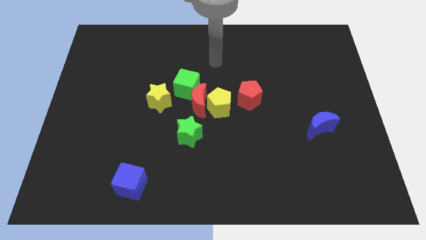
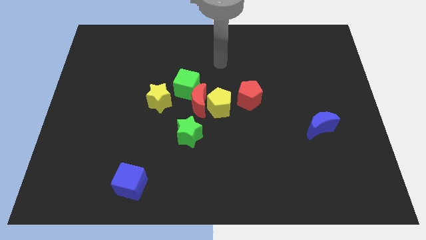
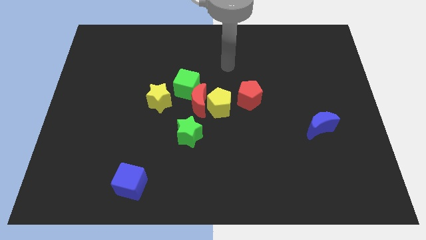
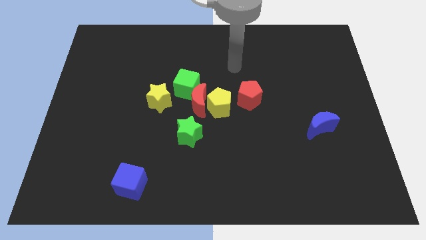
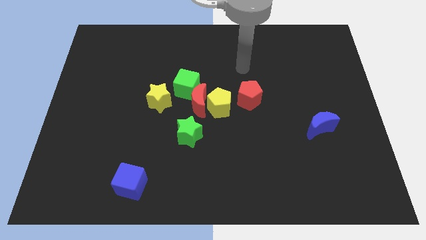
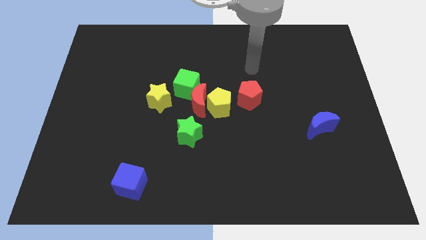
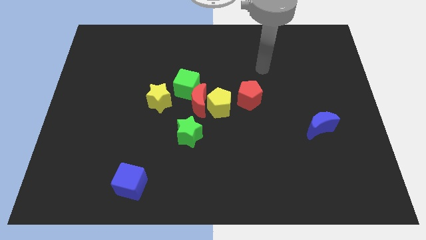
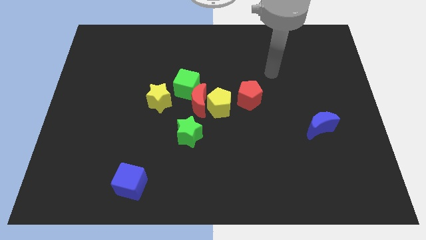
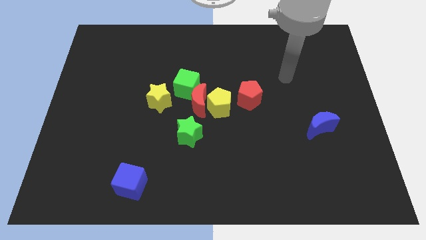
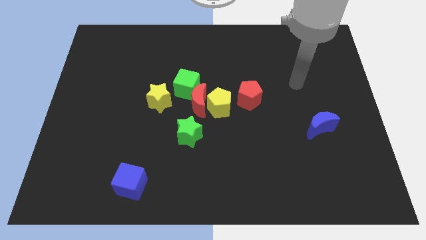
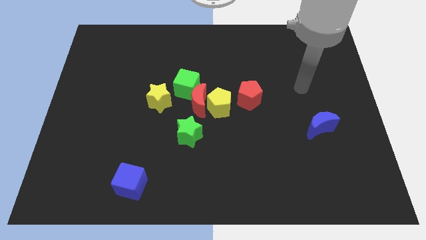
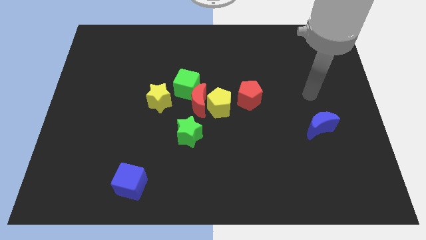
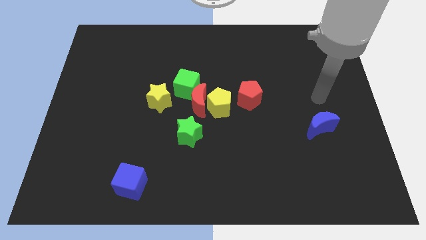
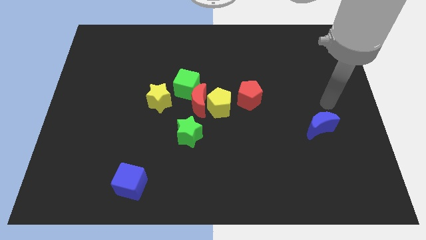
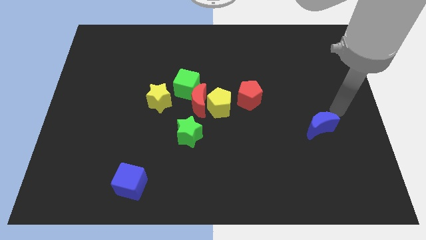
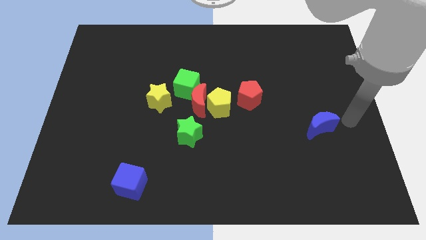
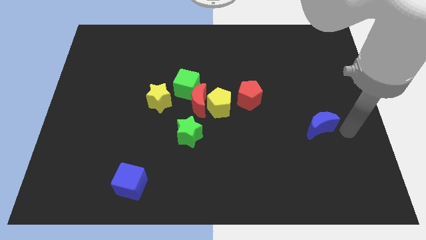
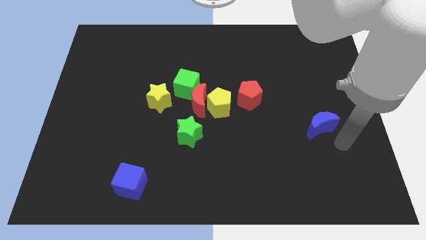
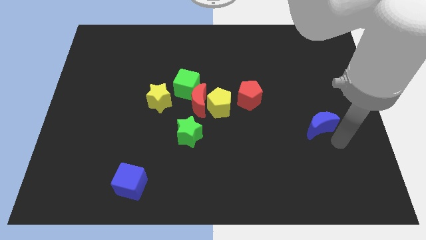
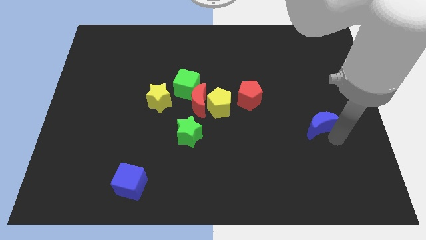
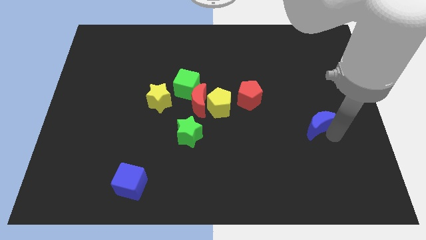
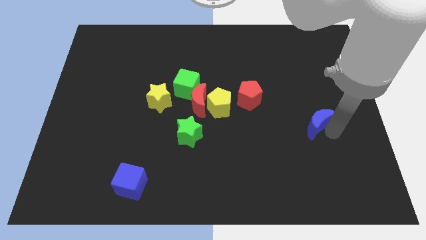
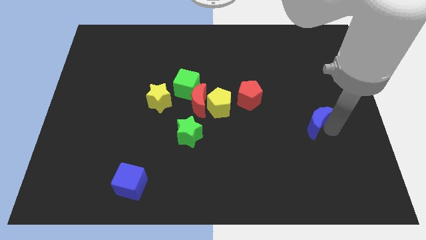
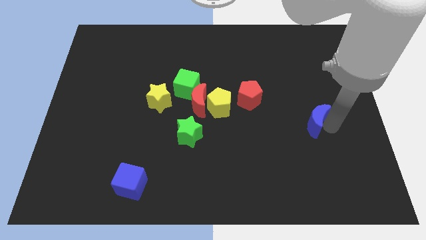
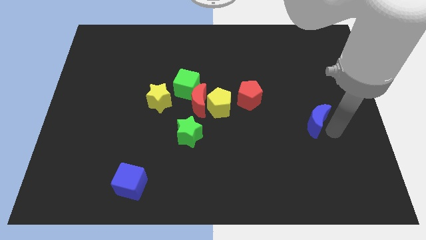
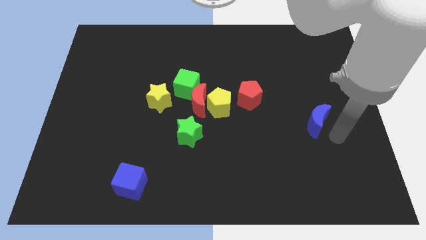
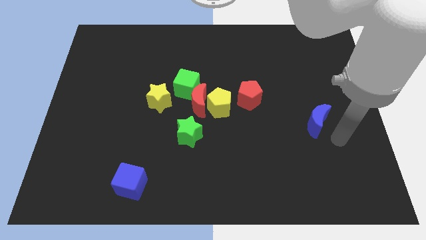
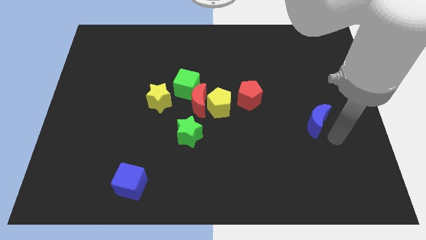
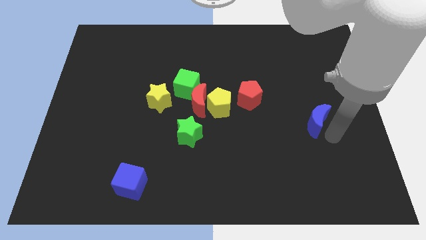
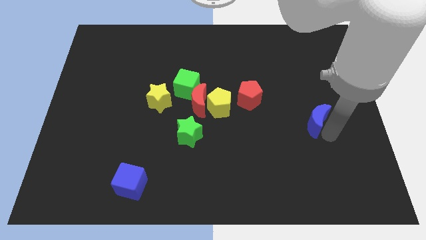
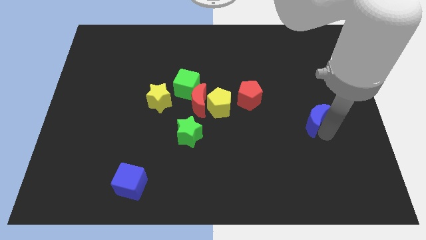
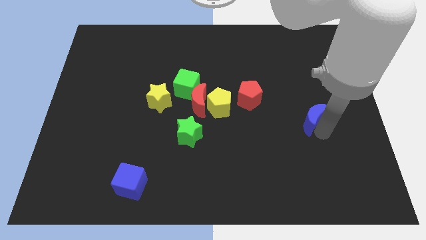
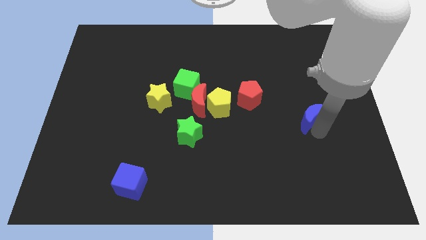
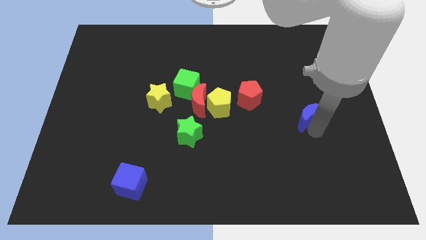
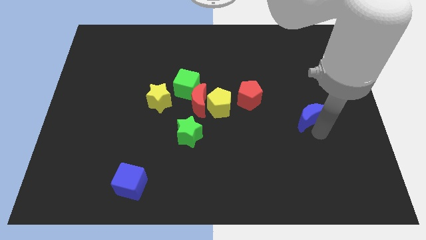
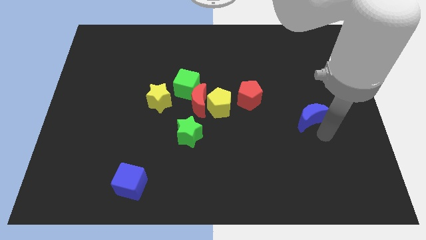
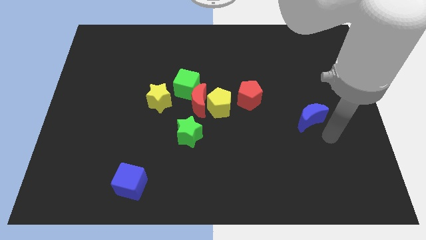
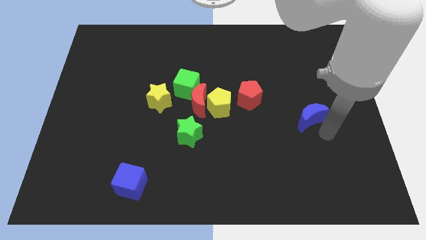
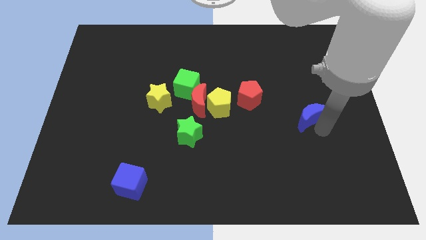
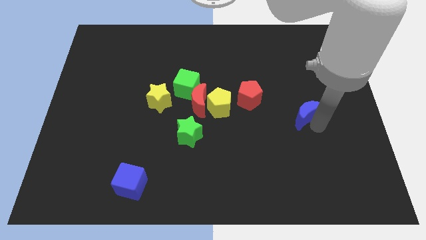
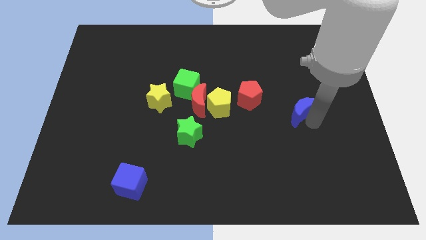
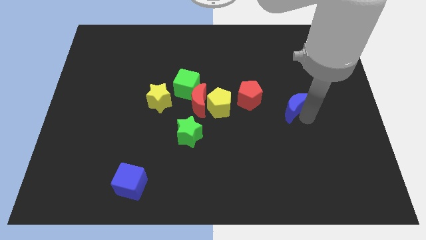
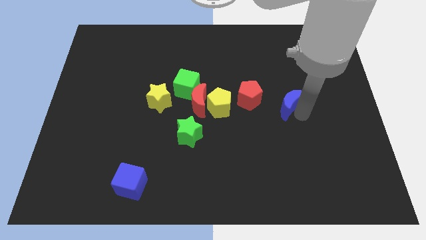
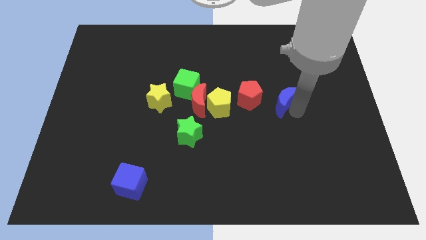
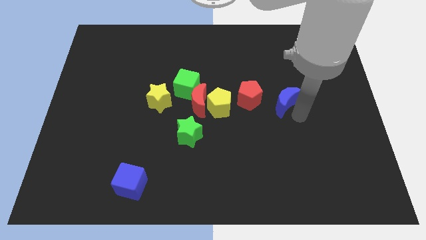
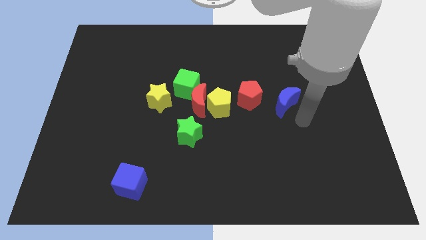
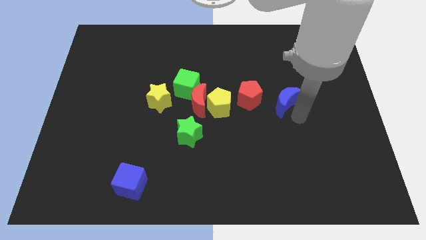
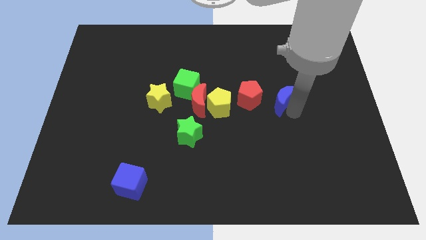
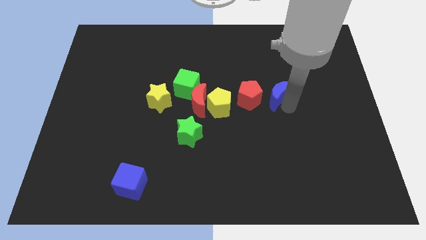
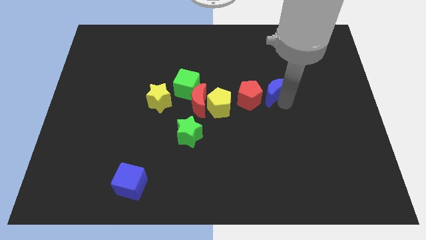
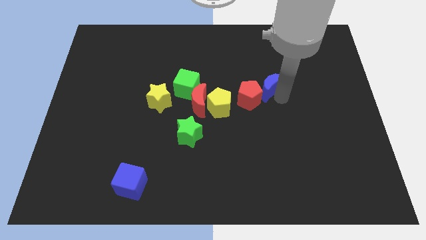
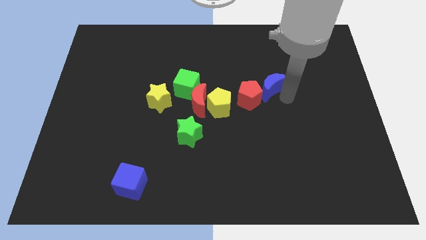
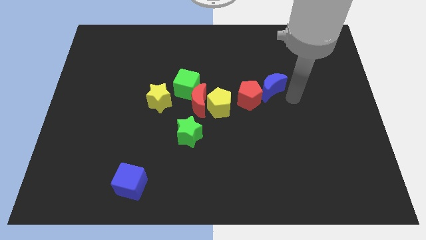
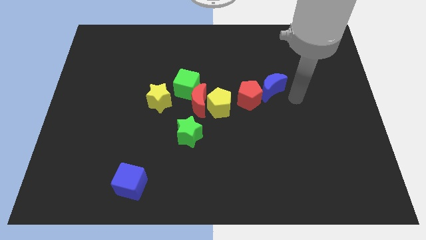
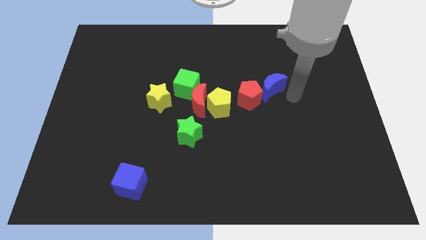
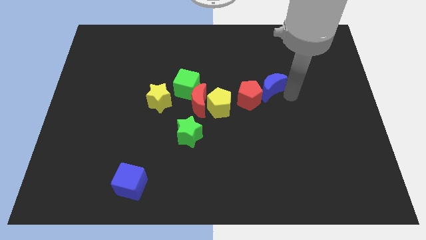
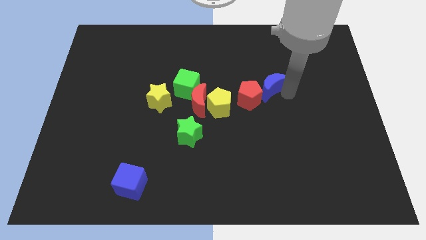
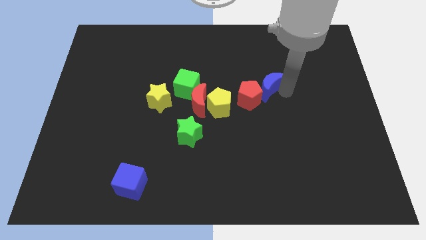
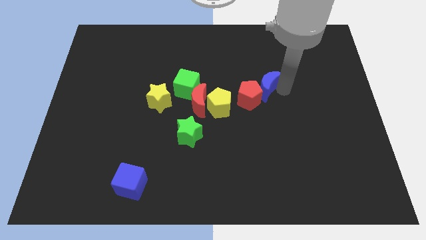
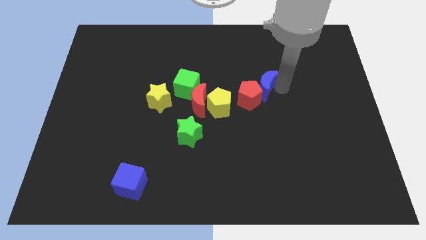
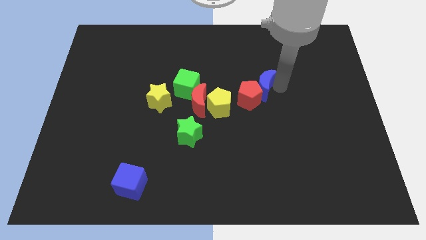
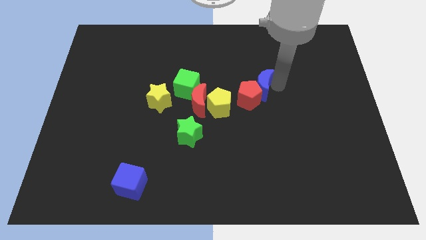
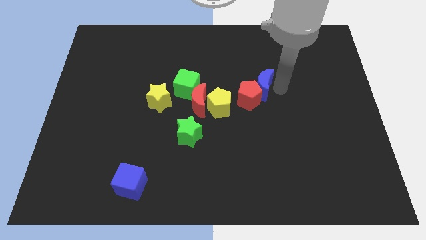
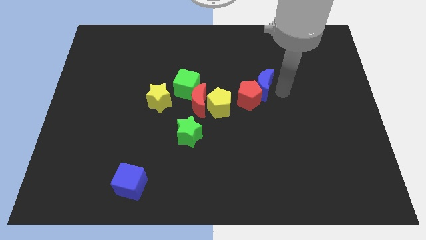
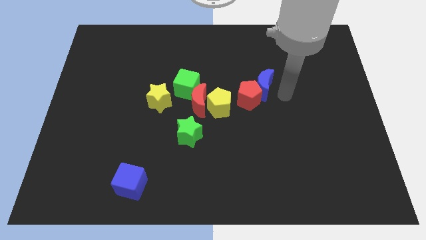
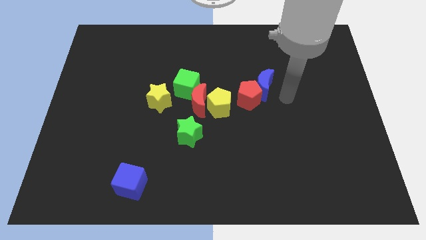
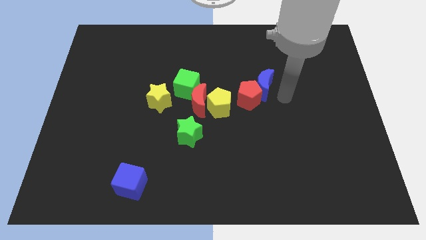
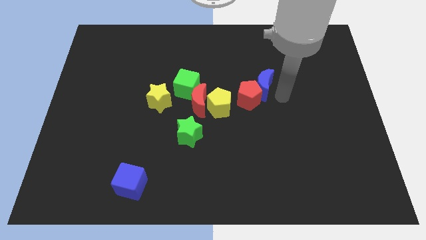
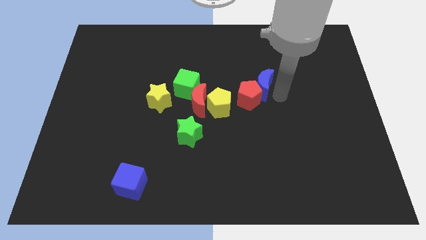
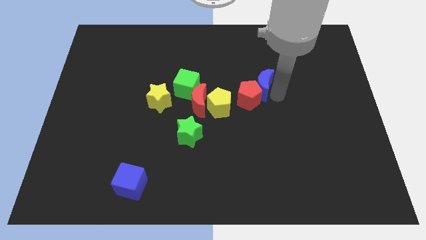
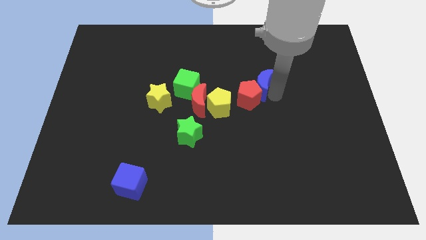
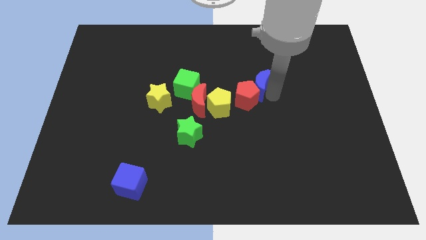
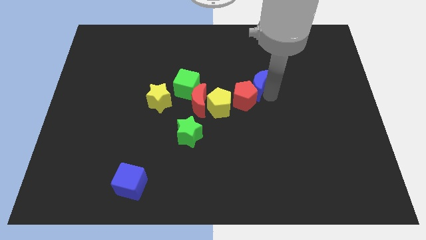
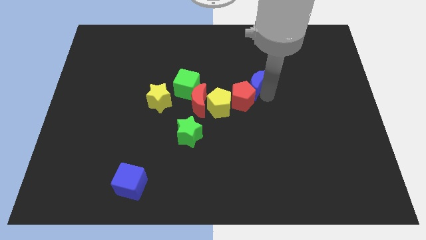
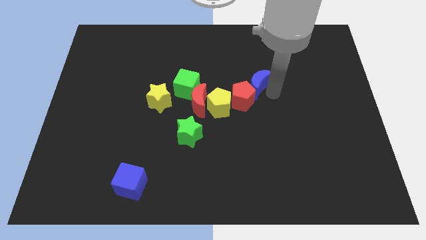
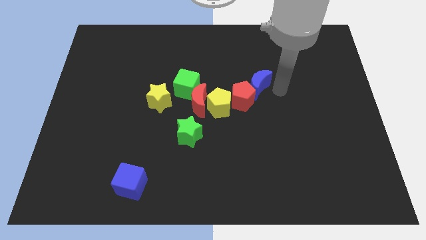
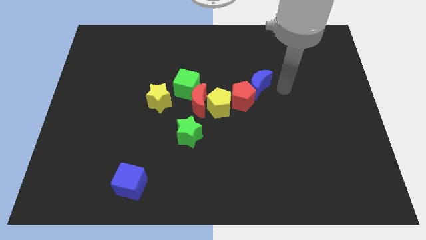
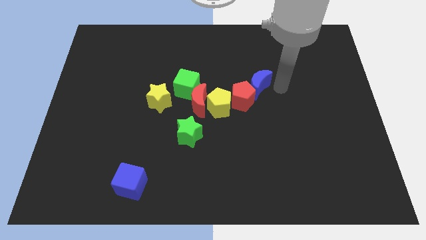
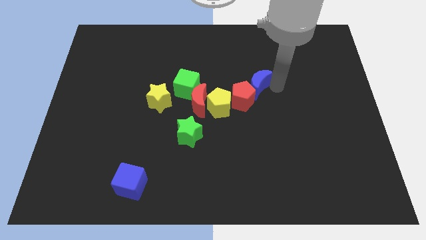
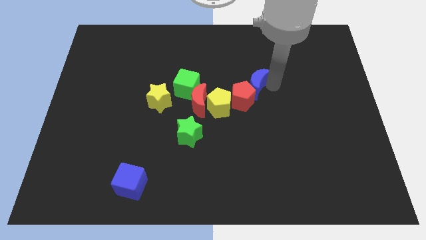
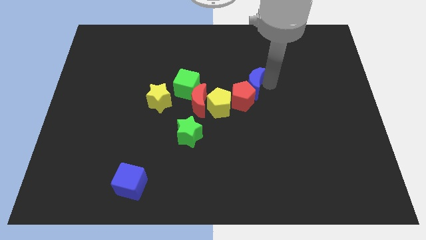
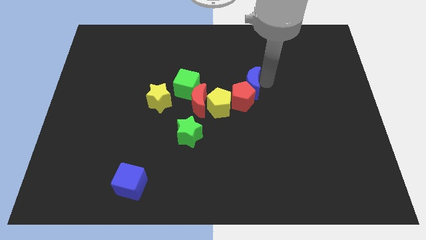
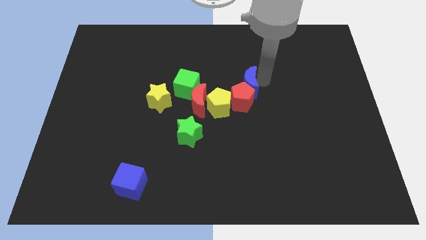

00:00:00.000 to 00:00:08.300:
put the blue moon to the top left side of the red pentagon
